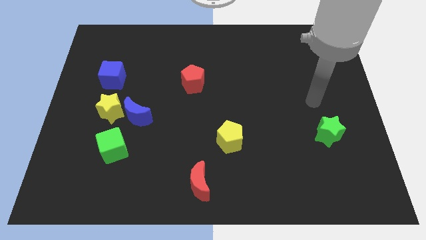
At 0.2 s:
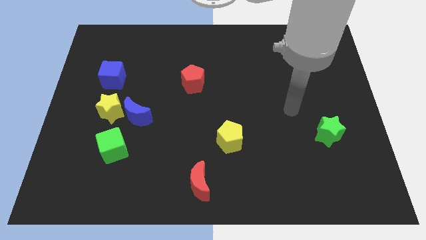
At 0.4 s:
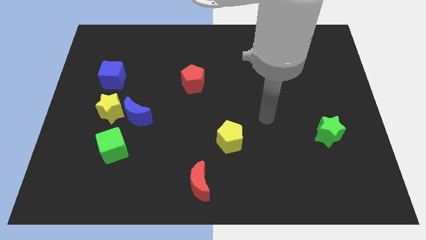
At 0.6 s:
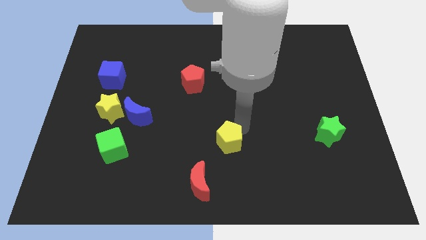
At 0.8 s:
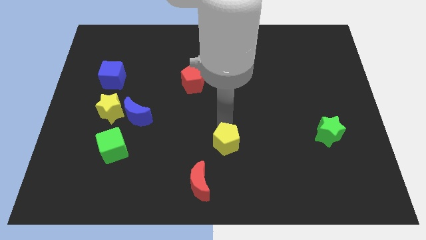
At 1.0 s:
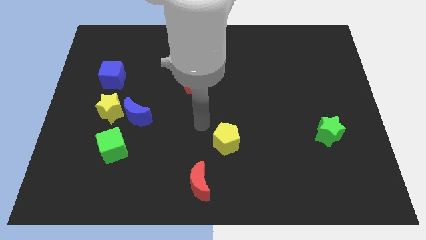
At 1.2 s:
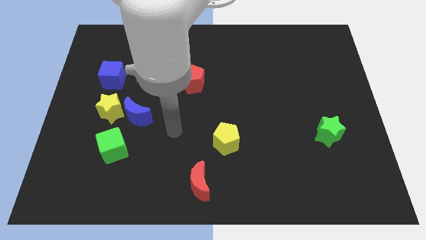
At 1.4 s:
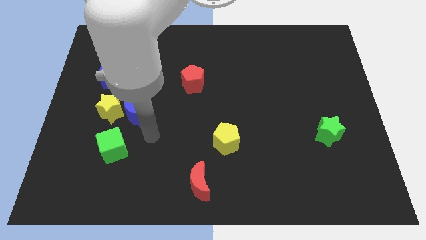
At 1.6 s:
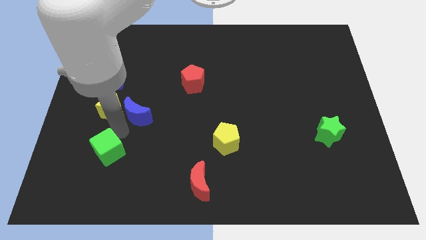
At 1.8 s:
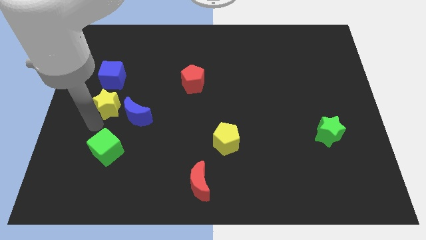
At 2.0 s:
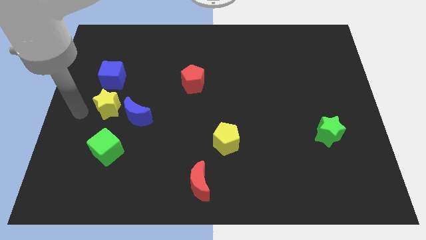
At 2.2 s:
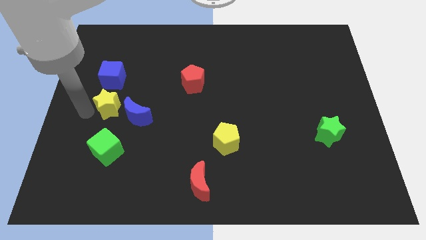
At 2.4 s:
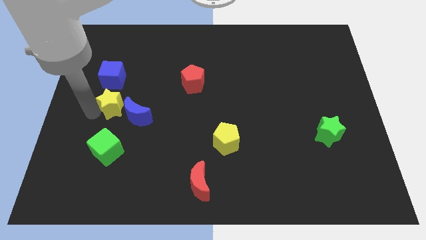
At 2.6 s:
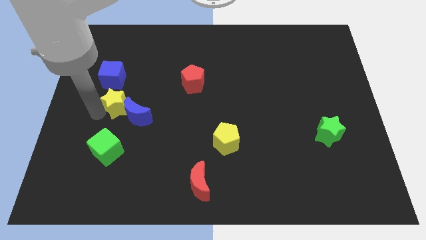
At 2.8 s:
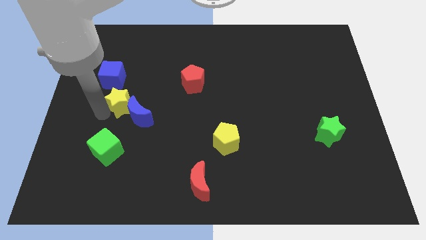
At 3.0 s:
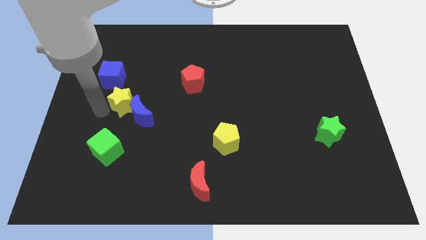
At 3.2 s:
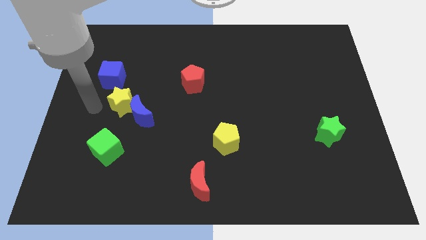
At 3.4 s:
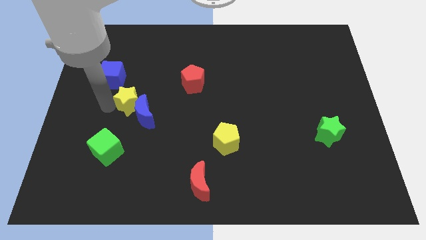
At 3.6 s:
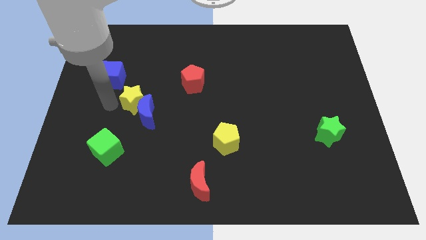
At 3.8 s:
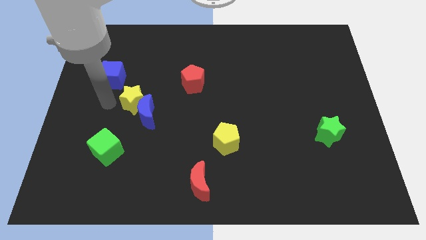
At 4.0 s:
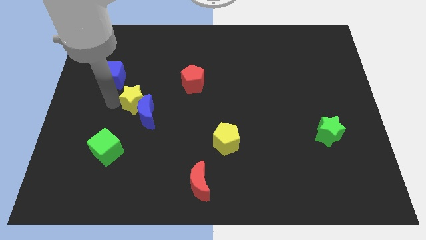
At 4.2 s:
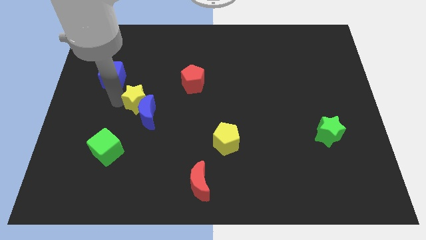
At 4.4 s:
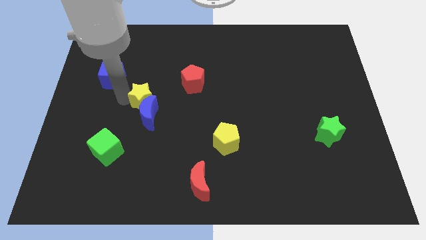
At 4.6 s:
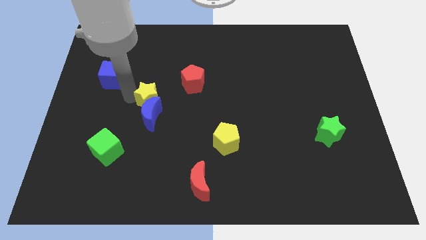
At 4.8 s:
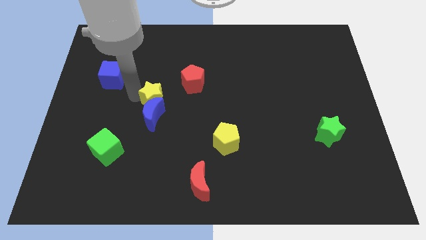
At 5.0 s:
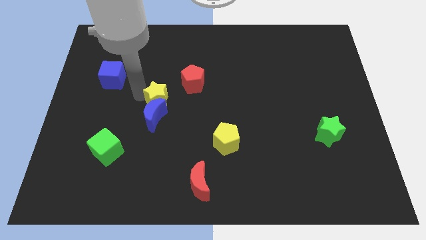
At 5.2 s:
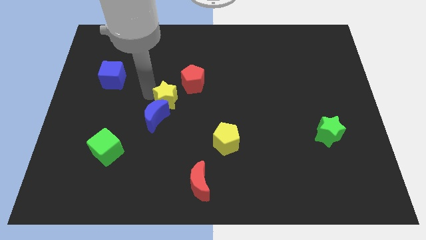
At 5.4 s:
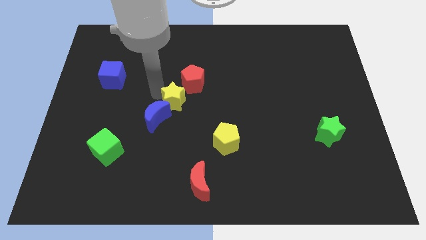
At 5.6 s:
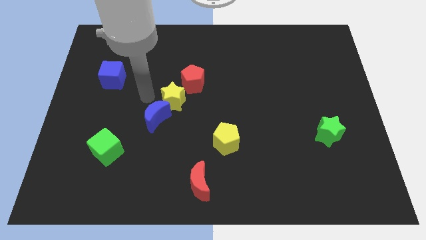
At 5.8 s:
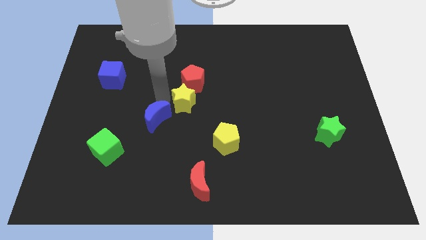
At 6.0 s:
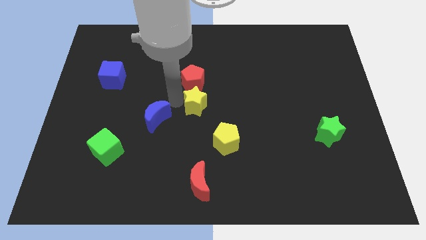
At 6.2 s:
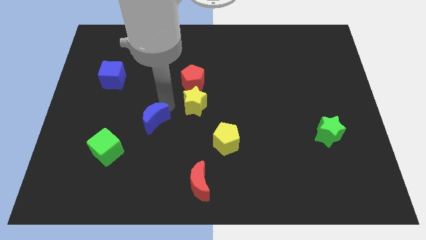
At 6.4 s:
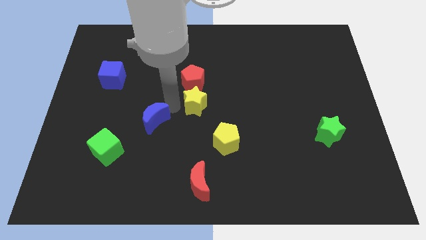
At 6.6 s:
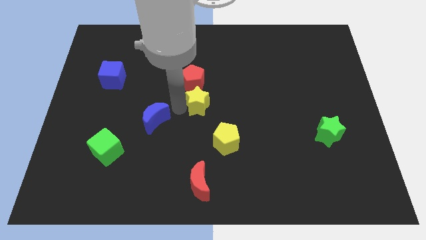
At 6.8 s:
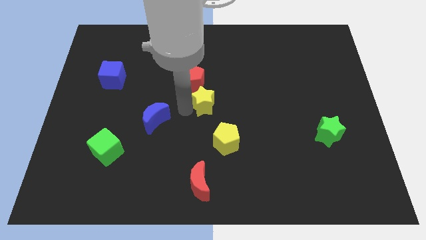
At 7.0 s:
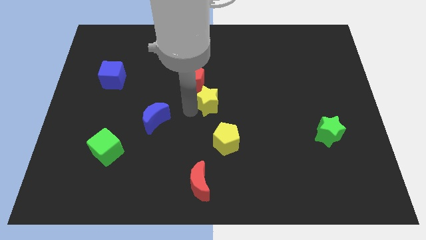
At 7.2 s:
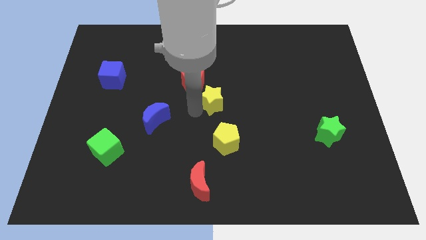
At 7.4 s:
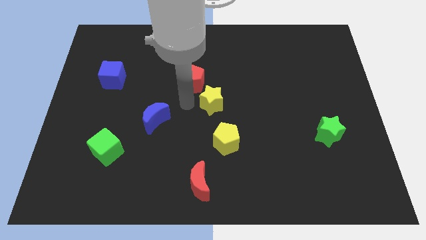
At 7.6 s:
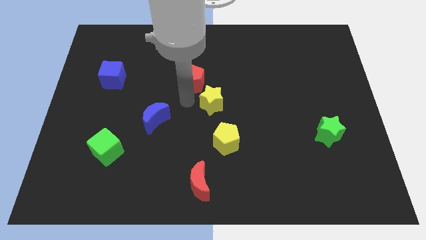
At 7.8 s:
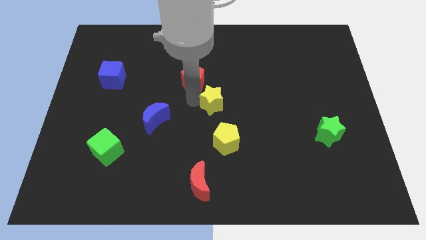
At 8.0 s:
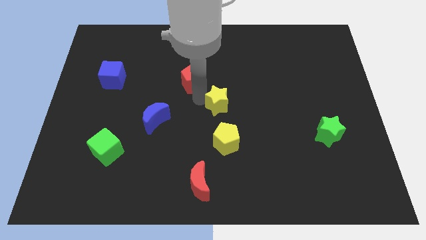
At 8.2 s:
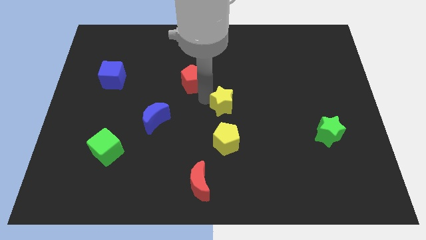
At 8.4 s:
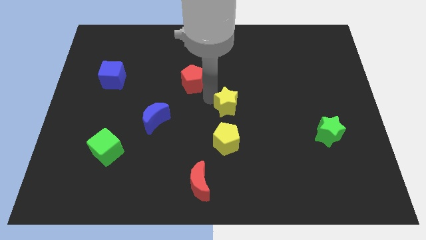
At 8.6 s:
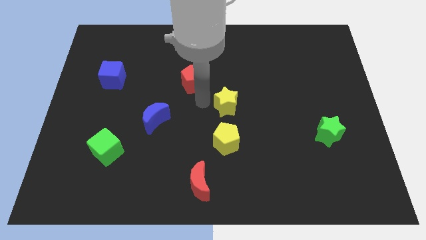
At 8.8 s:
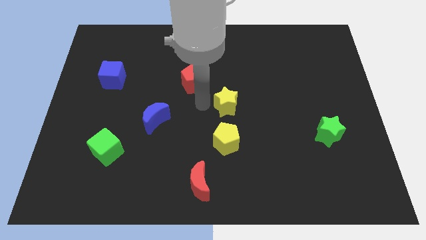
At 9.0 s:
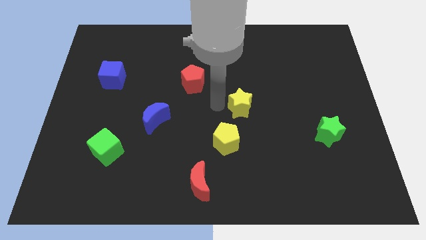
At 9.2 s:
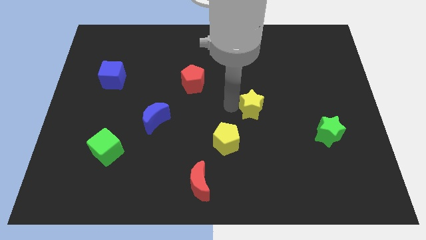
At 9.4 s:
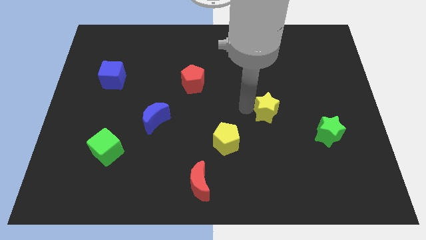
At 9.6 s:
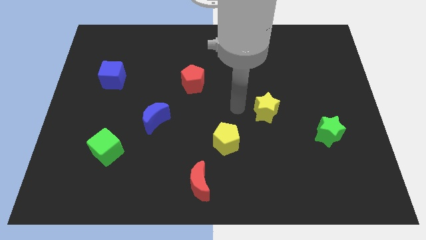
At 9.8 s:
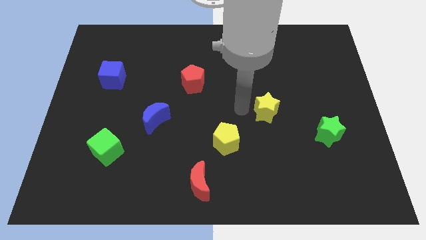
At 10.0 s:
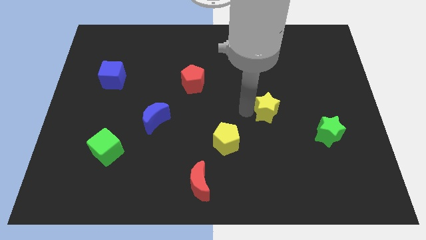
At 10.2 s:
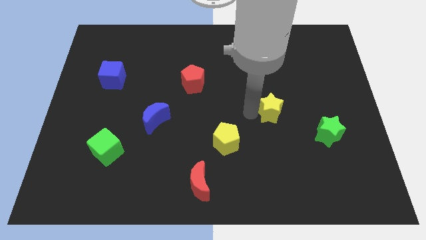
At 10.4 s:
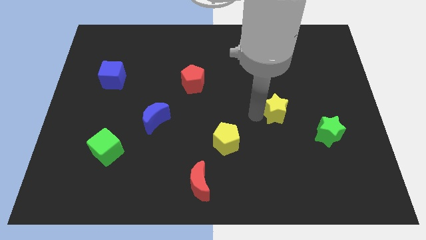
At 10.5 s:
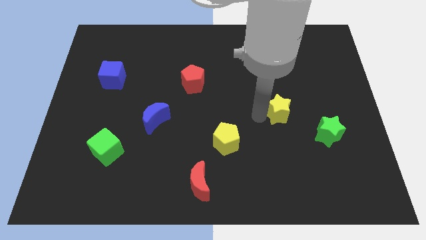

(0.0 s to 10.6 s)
slide the yellow star to the top left side of the green star

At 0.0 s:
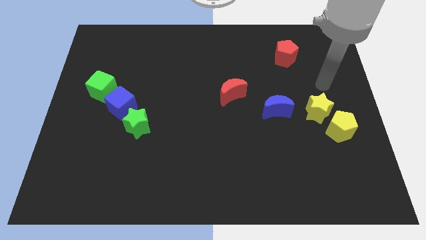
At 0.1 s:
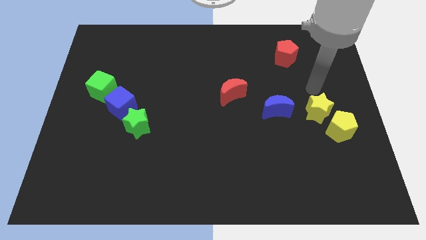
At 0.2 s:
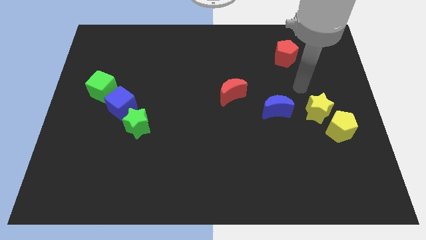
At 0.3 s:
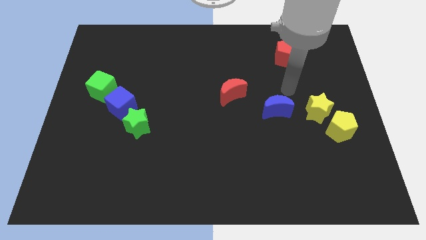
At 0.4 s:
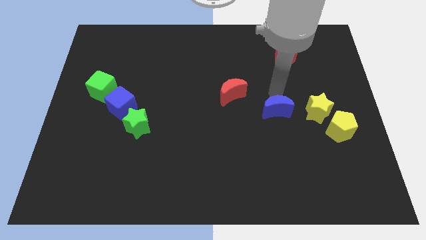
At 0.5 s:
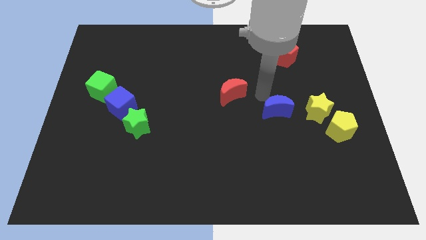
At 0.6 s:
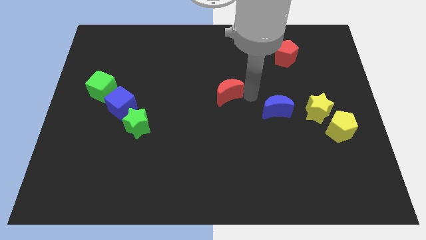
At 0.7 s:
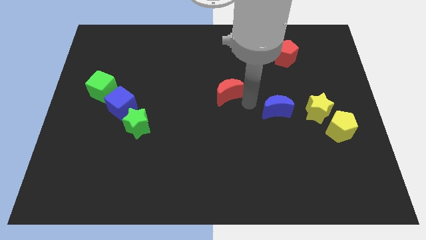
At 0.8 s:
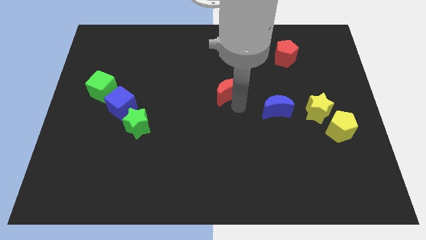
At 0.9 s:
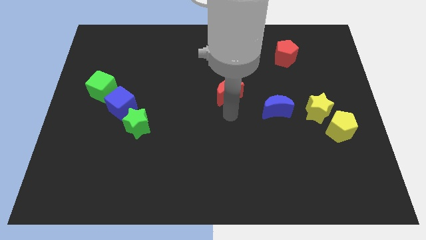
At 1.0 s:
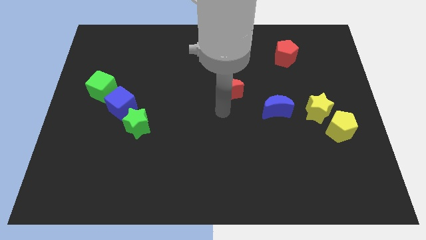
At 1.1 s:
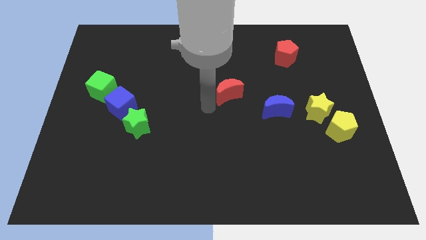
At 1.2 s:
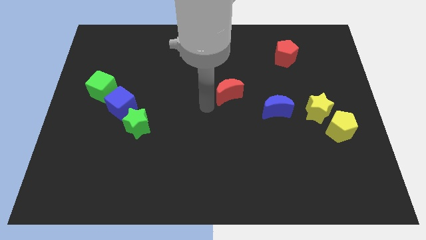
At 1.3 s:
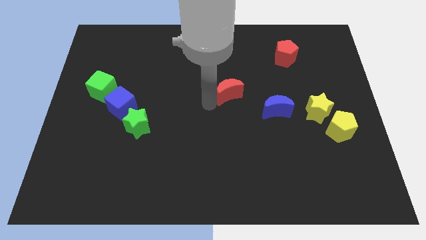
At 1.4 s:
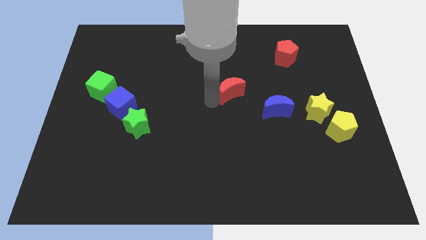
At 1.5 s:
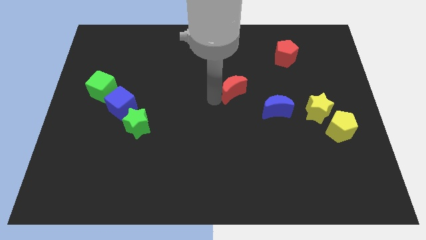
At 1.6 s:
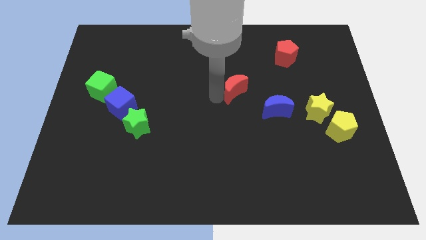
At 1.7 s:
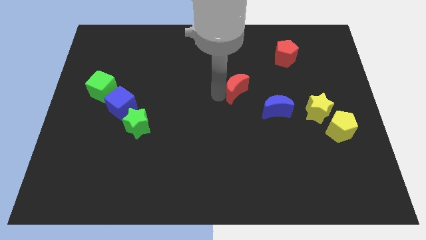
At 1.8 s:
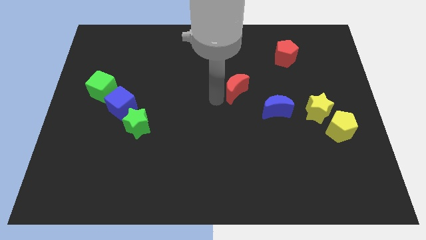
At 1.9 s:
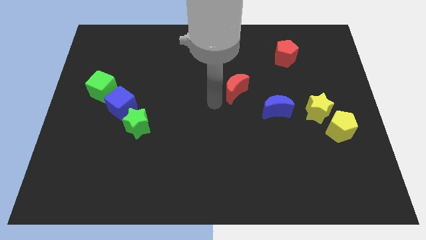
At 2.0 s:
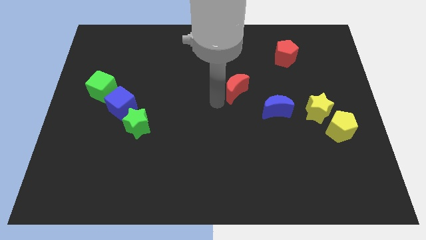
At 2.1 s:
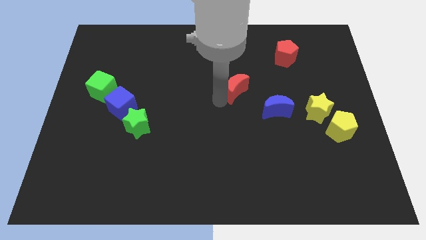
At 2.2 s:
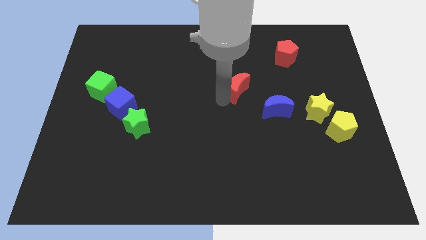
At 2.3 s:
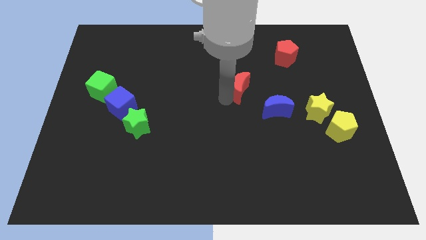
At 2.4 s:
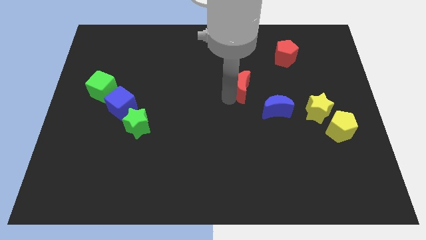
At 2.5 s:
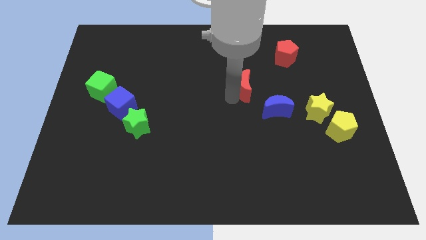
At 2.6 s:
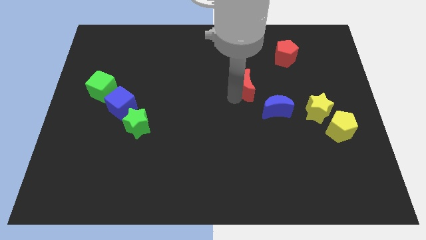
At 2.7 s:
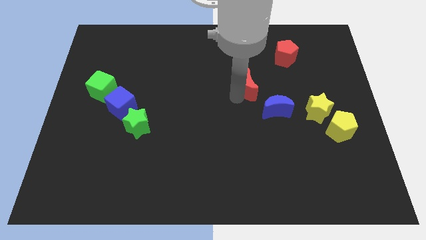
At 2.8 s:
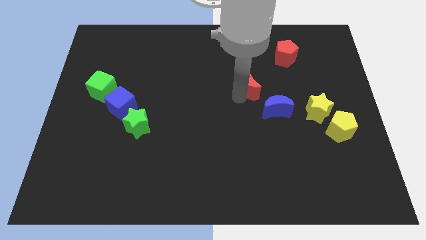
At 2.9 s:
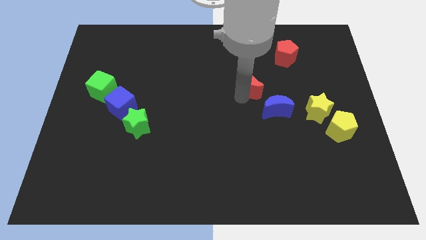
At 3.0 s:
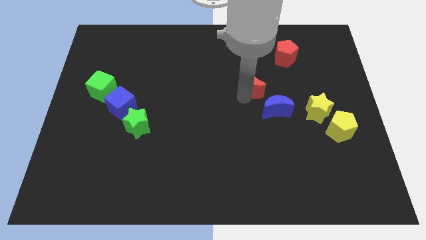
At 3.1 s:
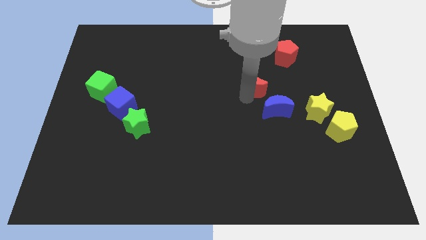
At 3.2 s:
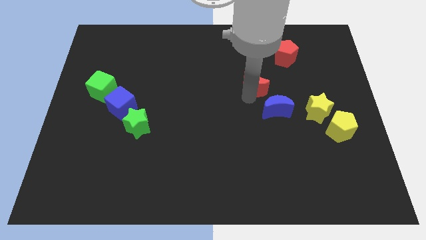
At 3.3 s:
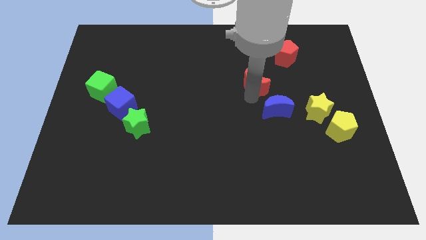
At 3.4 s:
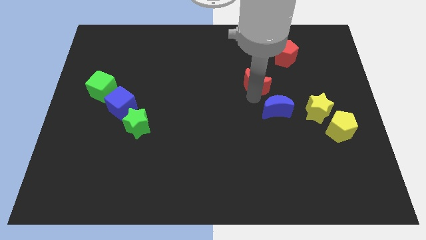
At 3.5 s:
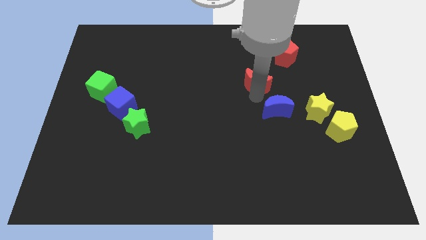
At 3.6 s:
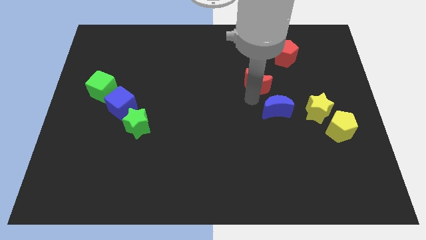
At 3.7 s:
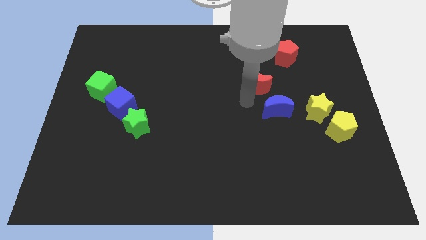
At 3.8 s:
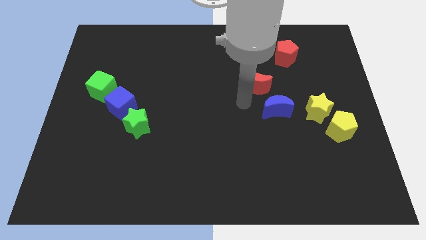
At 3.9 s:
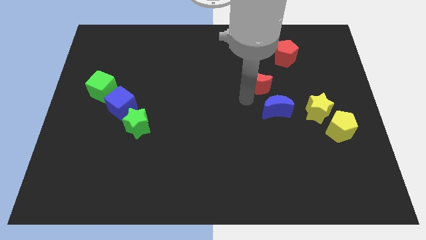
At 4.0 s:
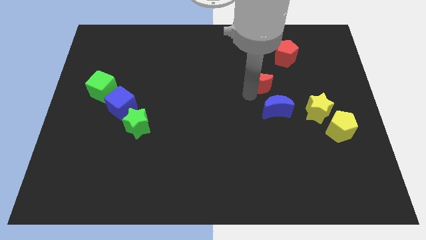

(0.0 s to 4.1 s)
slide the red moon diagonally down and to the left of the red pentagon
